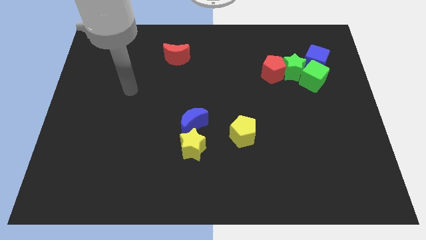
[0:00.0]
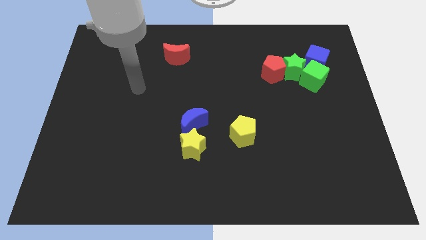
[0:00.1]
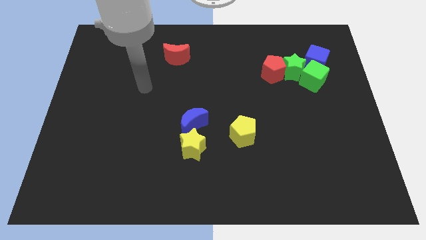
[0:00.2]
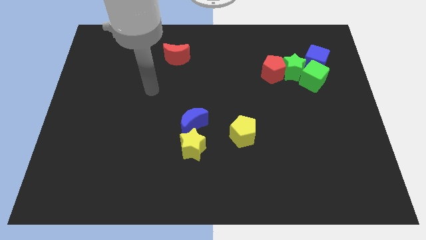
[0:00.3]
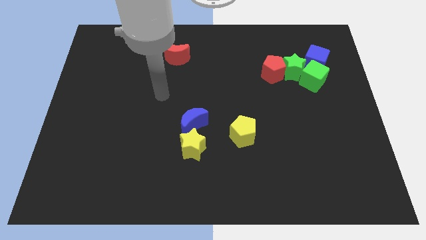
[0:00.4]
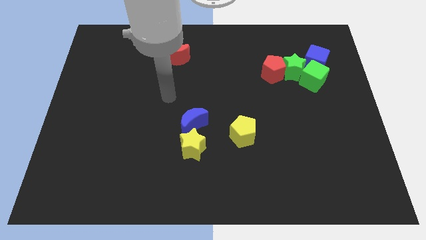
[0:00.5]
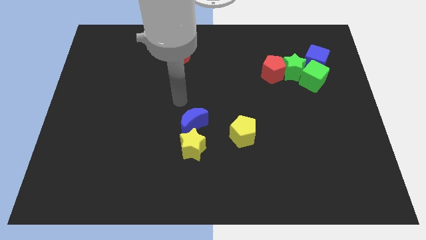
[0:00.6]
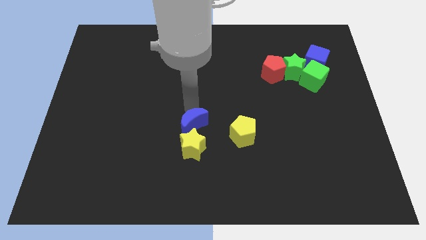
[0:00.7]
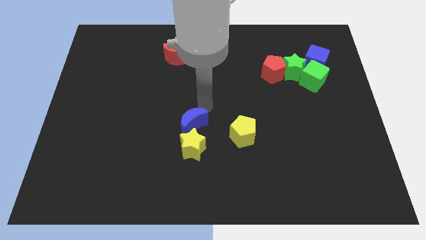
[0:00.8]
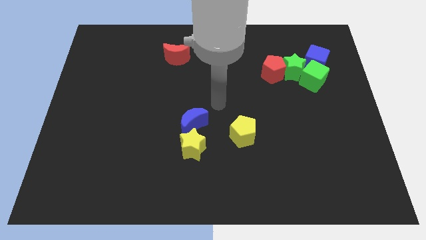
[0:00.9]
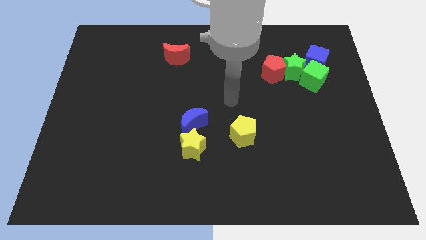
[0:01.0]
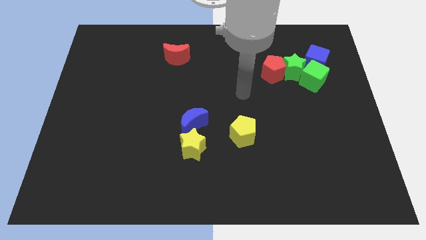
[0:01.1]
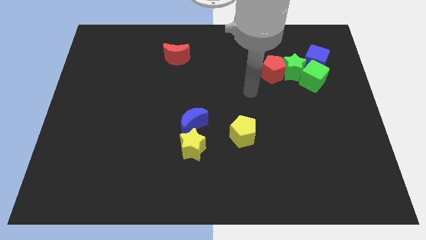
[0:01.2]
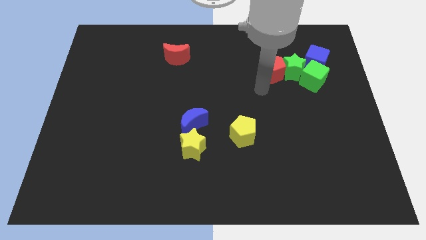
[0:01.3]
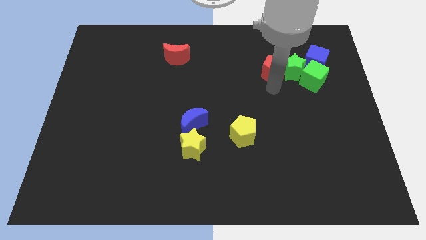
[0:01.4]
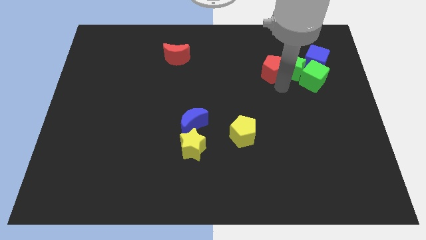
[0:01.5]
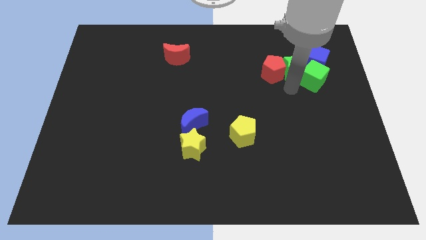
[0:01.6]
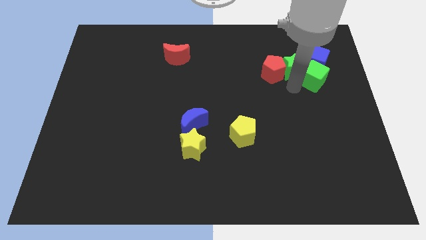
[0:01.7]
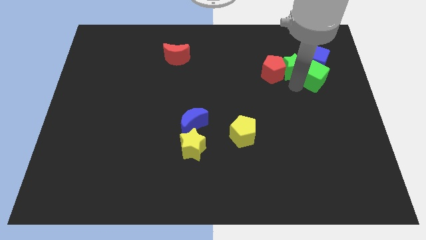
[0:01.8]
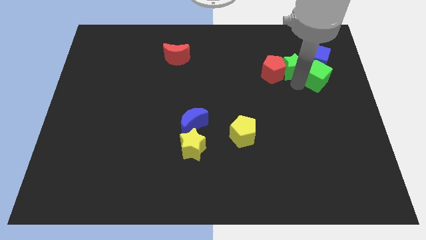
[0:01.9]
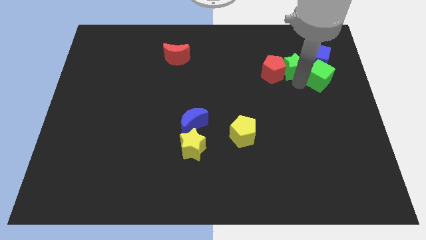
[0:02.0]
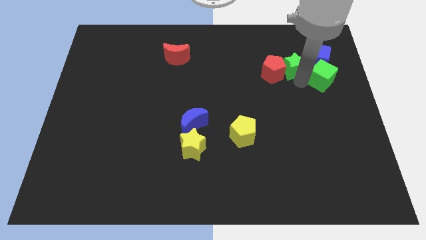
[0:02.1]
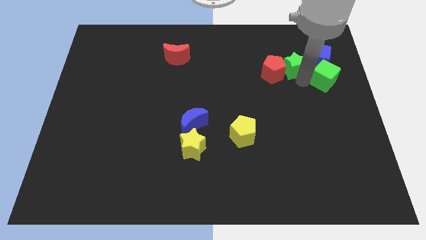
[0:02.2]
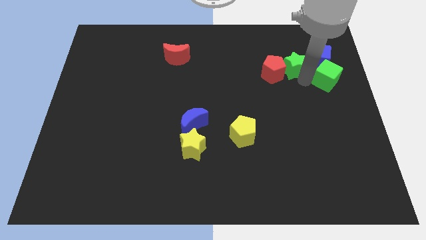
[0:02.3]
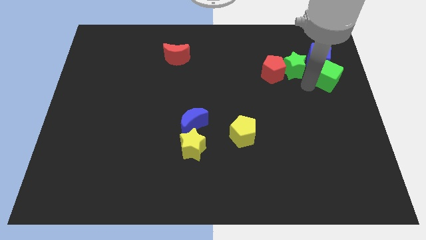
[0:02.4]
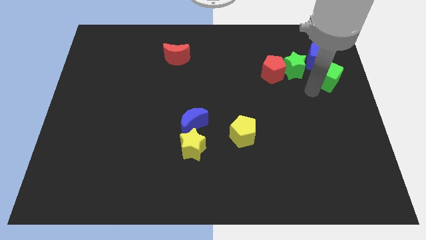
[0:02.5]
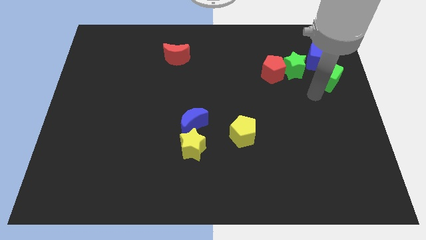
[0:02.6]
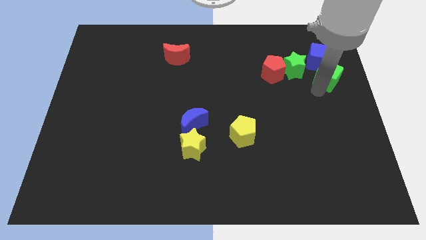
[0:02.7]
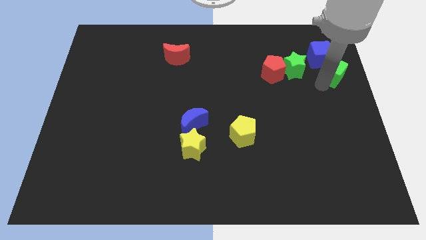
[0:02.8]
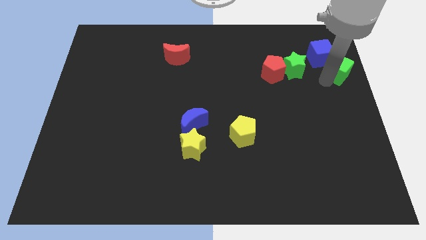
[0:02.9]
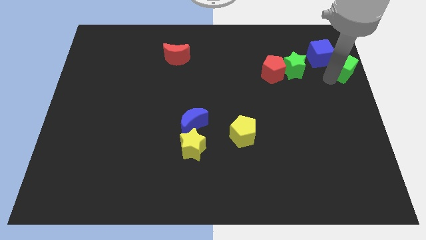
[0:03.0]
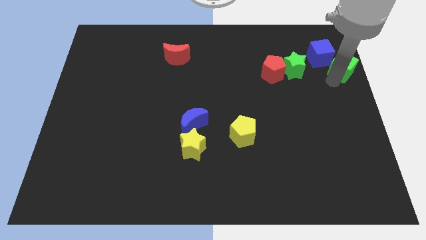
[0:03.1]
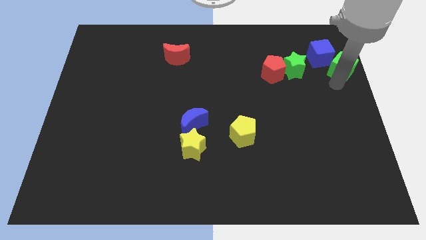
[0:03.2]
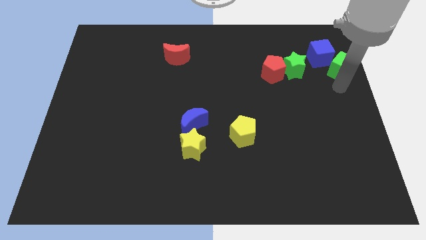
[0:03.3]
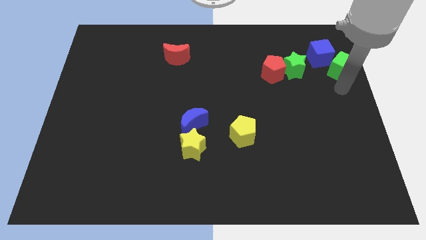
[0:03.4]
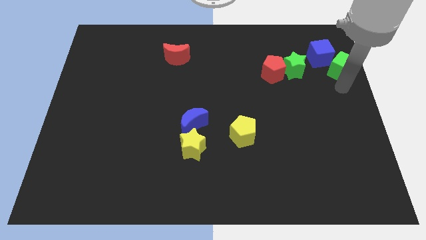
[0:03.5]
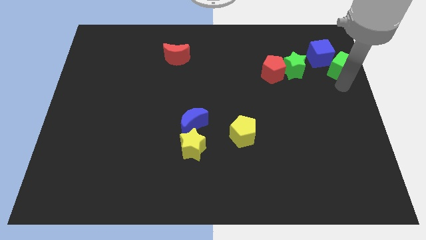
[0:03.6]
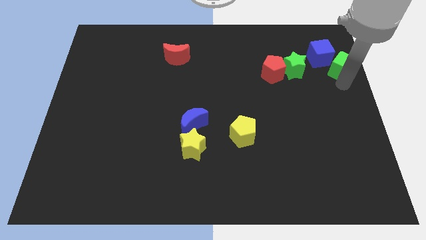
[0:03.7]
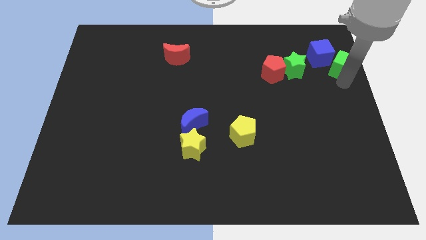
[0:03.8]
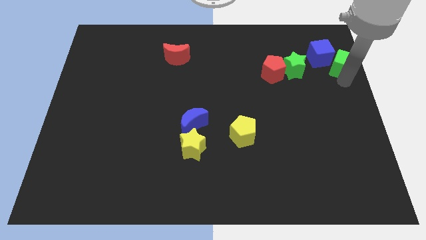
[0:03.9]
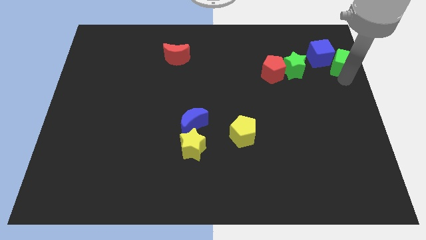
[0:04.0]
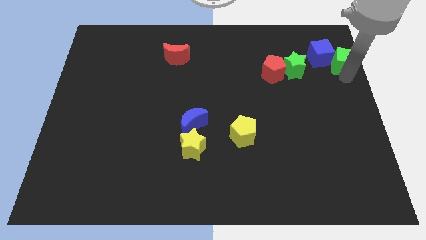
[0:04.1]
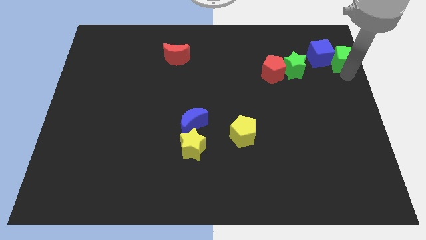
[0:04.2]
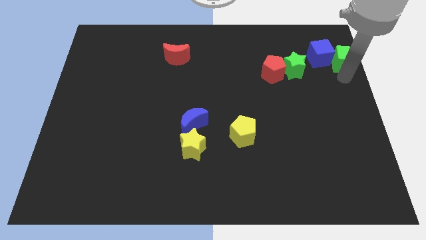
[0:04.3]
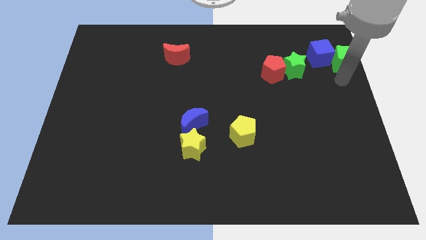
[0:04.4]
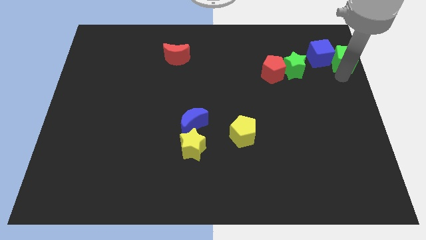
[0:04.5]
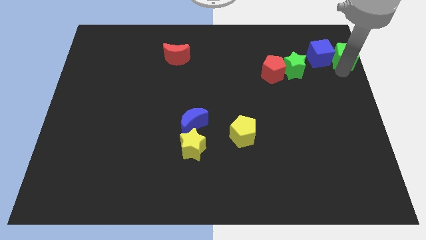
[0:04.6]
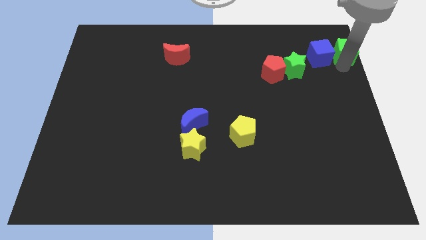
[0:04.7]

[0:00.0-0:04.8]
put the green cube to the upper right corner

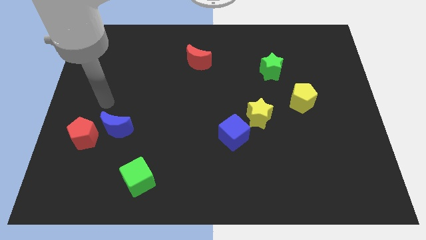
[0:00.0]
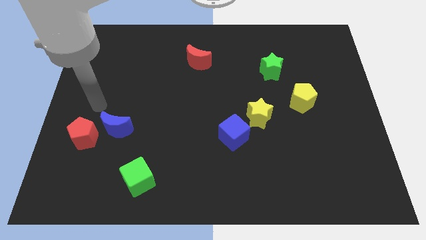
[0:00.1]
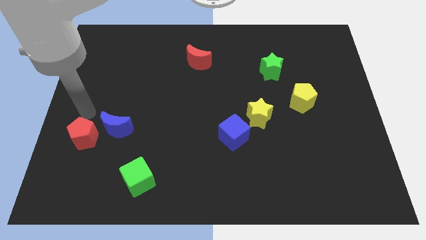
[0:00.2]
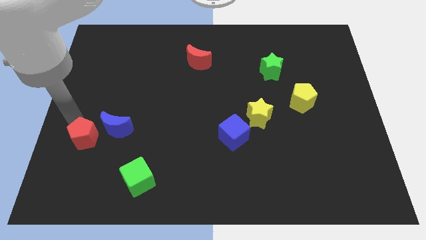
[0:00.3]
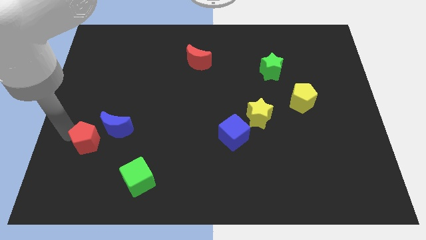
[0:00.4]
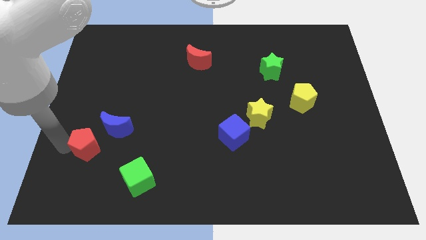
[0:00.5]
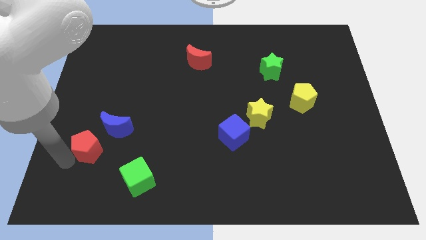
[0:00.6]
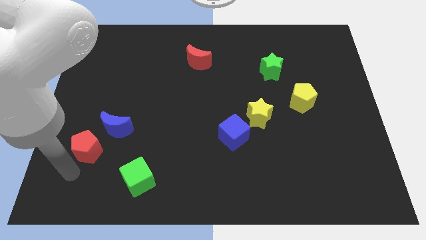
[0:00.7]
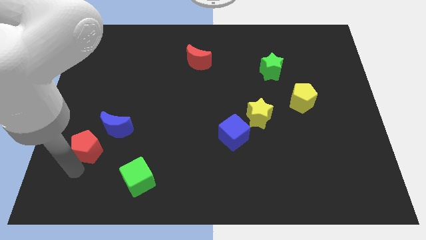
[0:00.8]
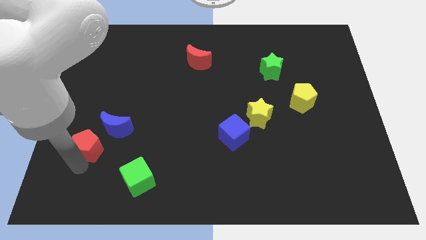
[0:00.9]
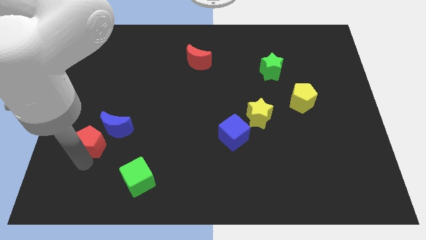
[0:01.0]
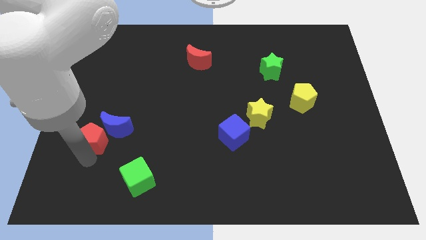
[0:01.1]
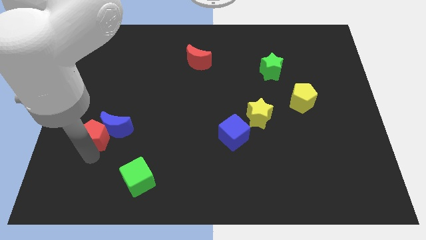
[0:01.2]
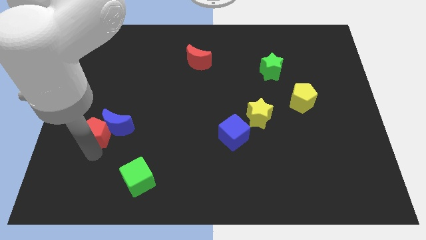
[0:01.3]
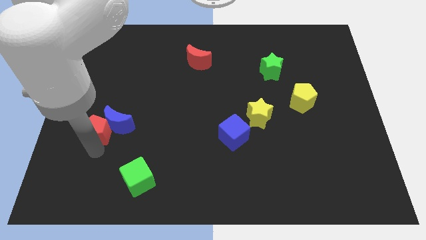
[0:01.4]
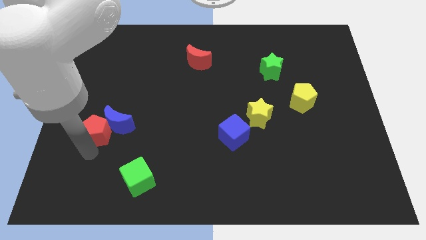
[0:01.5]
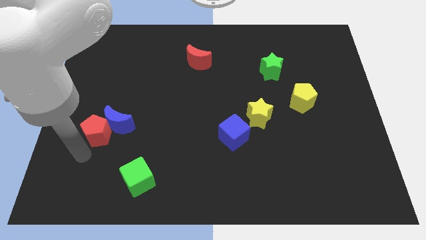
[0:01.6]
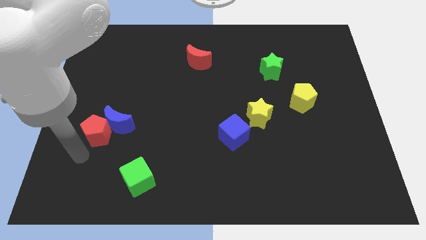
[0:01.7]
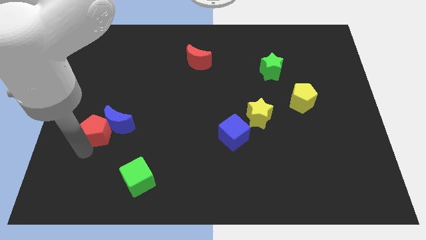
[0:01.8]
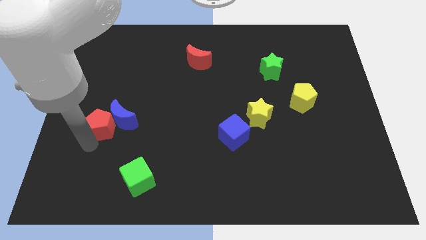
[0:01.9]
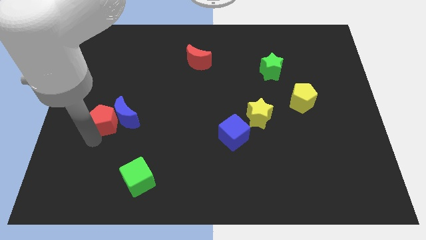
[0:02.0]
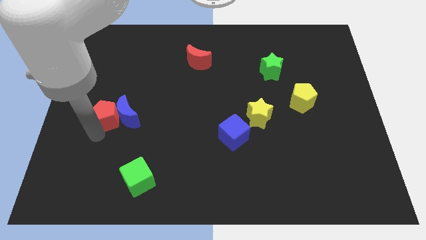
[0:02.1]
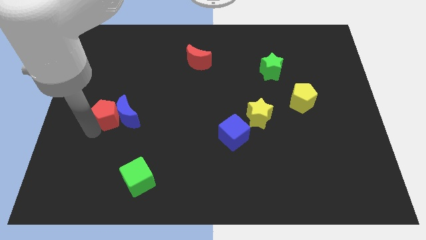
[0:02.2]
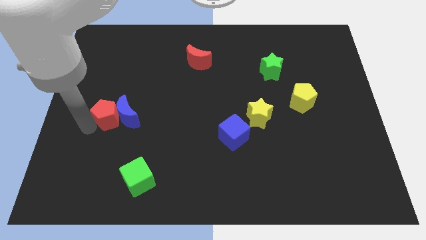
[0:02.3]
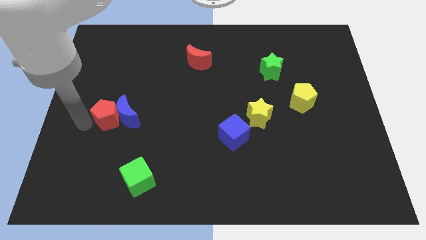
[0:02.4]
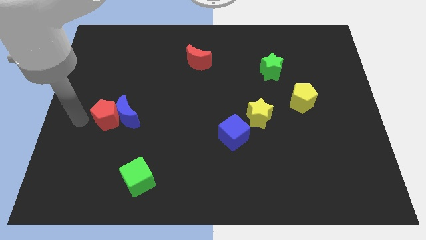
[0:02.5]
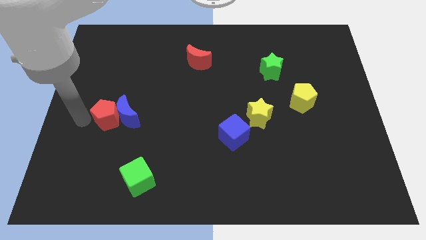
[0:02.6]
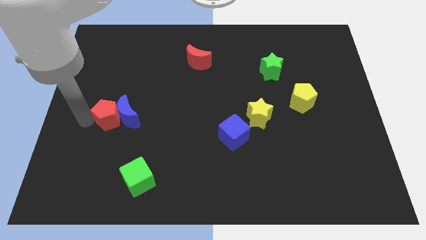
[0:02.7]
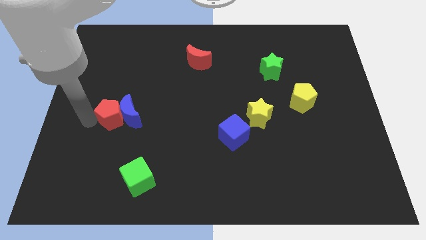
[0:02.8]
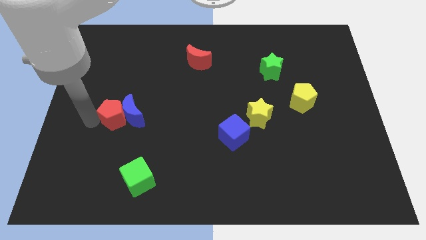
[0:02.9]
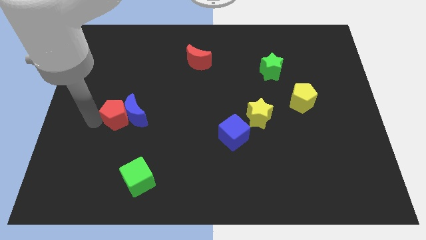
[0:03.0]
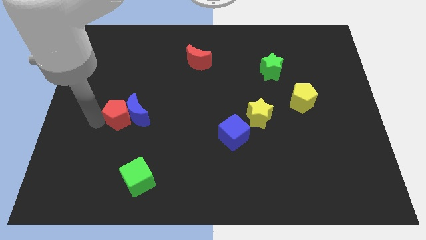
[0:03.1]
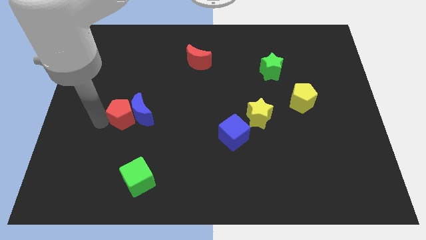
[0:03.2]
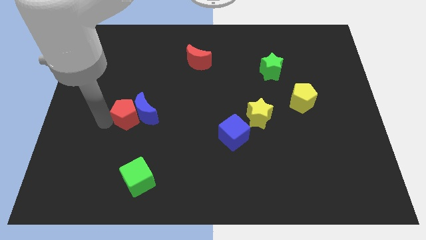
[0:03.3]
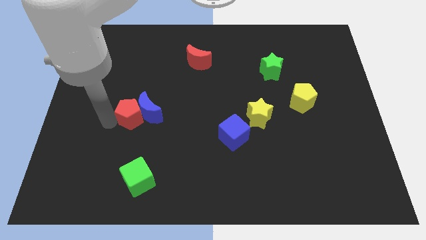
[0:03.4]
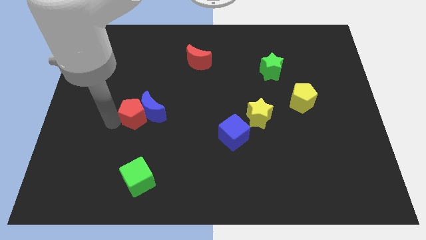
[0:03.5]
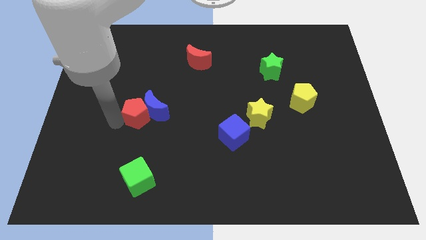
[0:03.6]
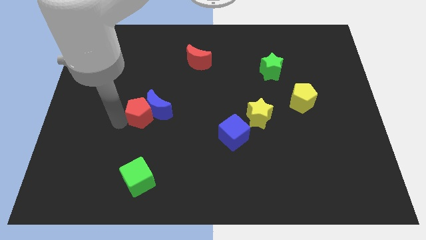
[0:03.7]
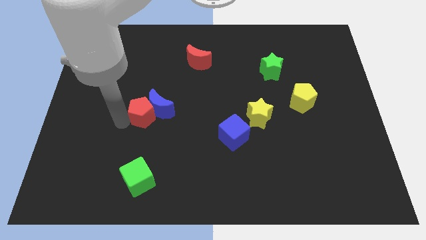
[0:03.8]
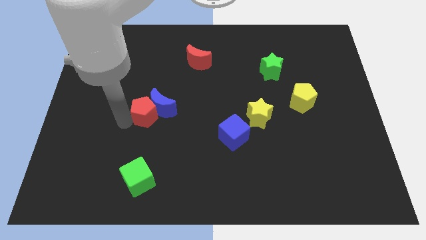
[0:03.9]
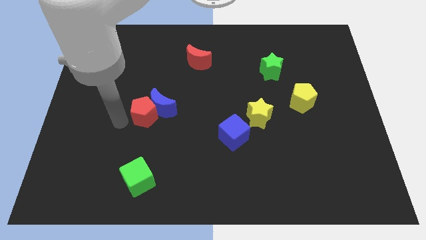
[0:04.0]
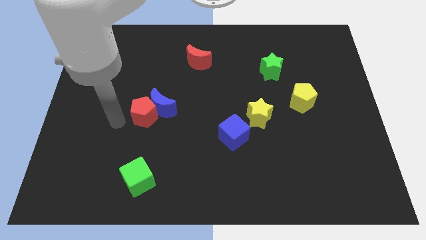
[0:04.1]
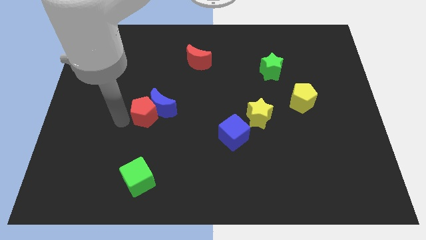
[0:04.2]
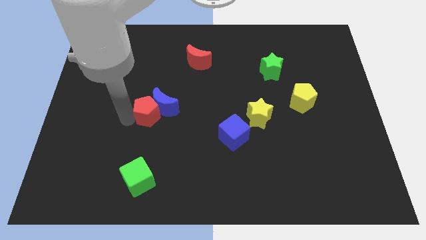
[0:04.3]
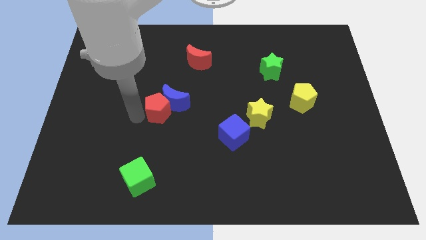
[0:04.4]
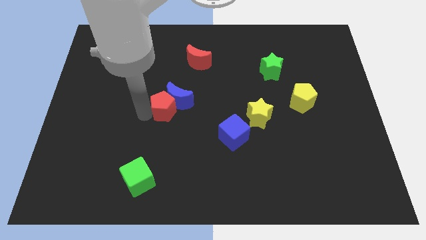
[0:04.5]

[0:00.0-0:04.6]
put the red pentagon to the center
